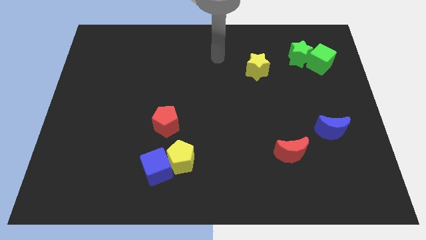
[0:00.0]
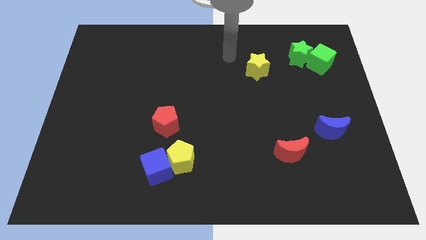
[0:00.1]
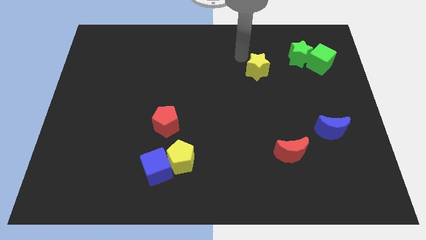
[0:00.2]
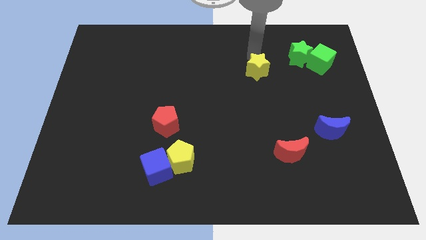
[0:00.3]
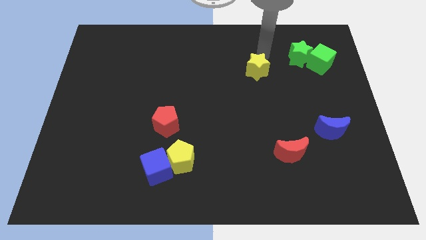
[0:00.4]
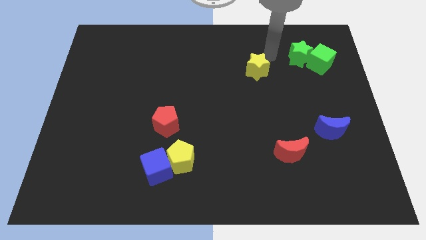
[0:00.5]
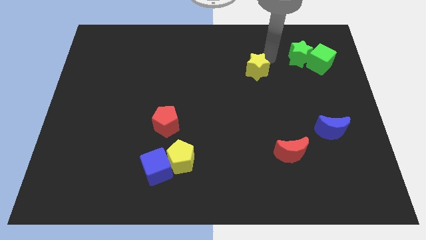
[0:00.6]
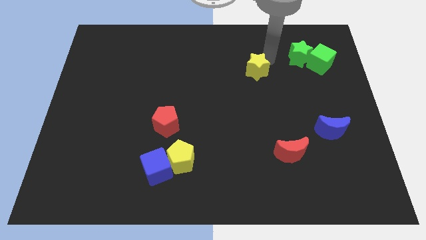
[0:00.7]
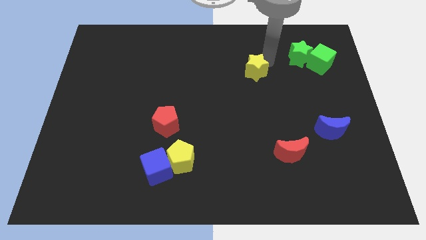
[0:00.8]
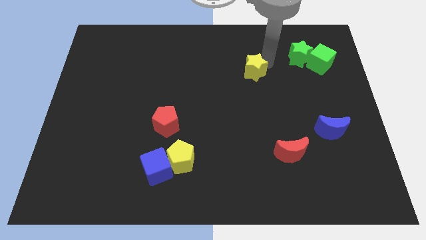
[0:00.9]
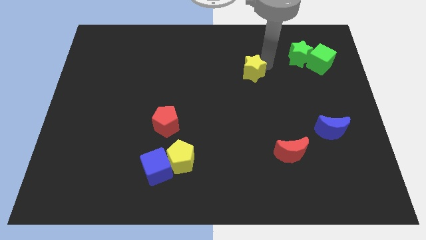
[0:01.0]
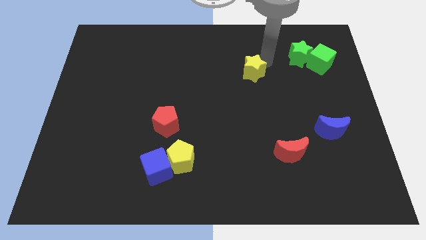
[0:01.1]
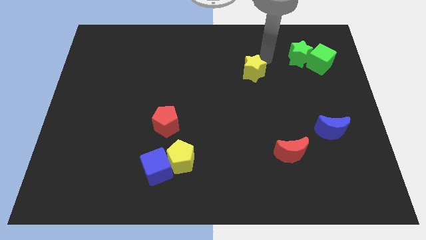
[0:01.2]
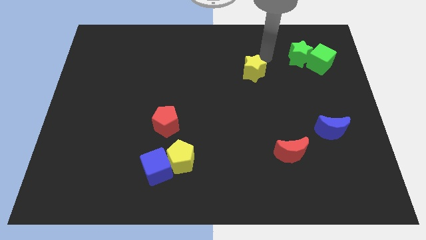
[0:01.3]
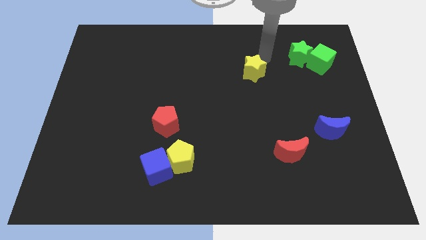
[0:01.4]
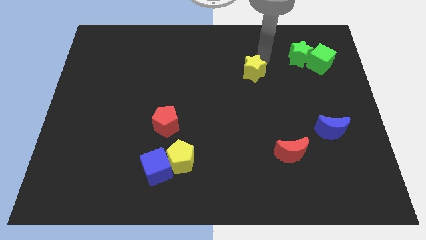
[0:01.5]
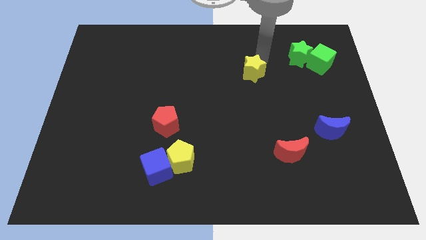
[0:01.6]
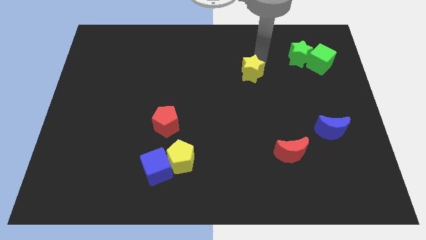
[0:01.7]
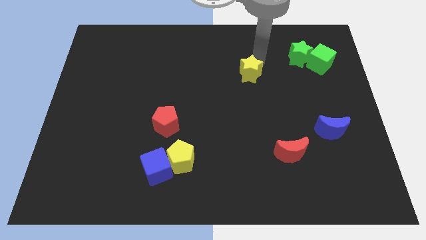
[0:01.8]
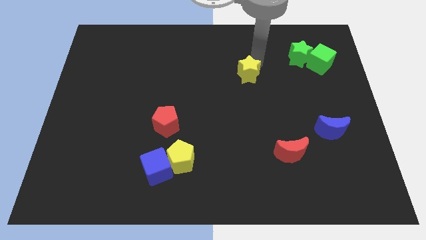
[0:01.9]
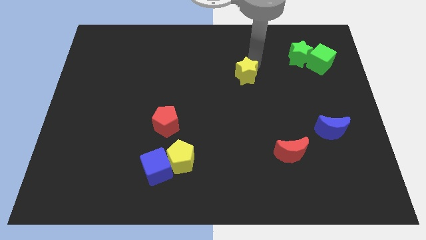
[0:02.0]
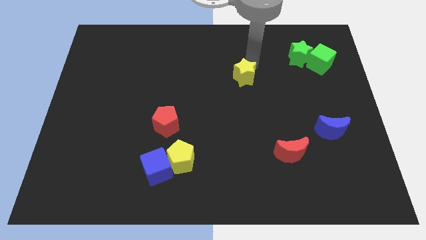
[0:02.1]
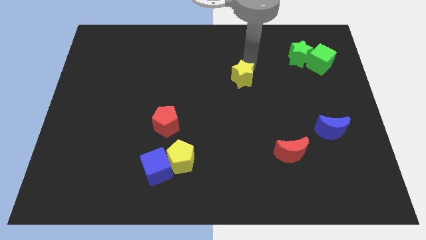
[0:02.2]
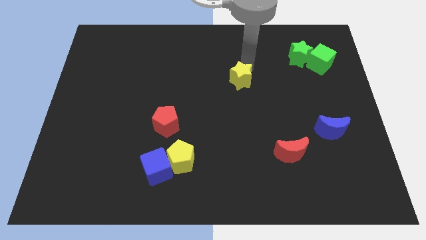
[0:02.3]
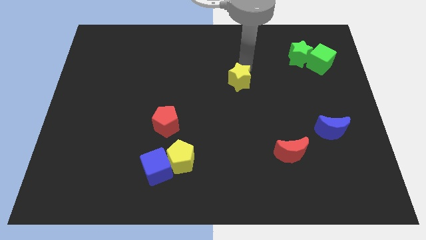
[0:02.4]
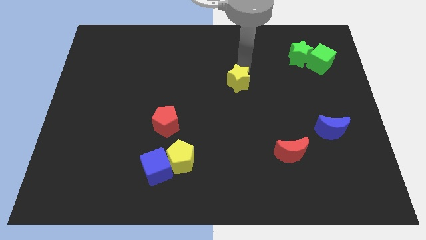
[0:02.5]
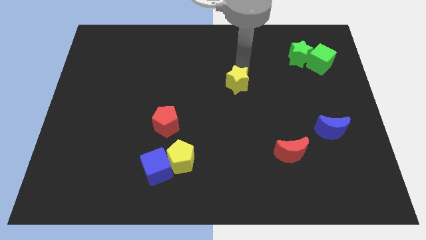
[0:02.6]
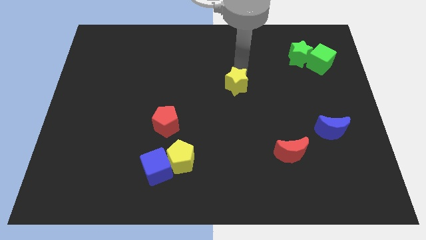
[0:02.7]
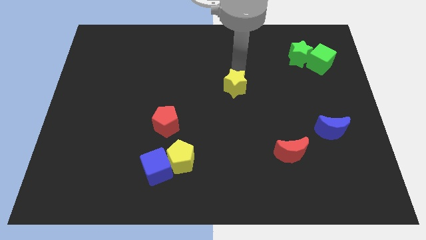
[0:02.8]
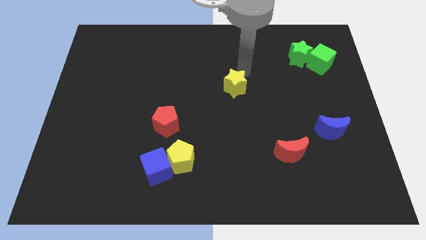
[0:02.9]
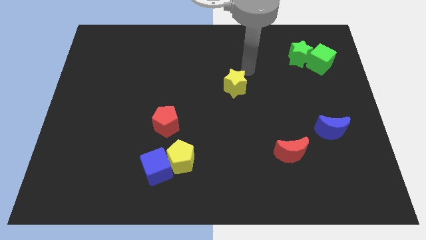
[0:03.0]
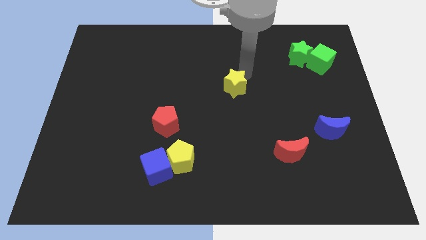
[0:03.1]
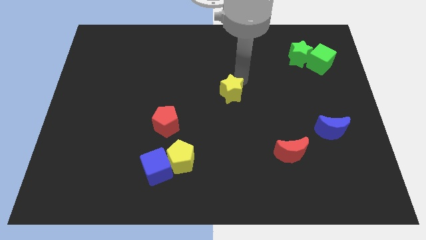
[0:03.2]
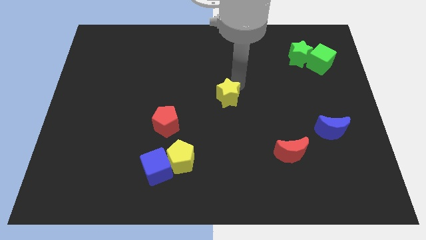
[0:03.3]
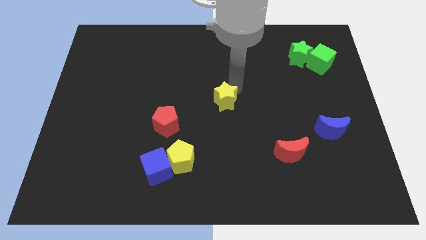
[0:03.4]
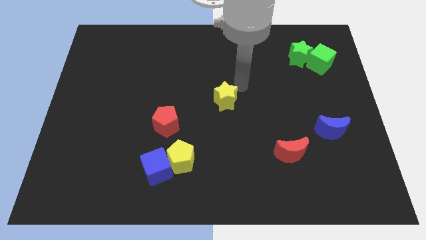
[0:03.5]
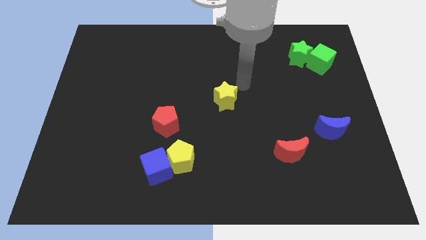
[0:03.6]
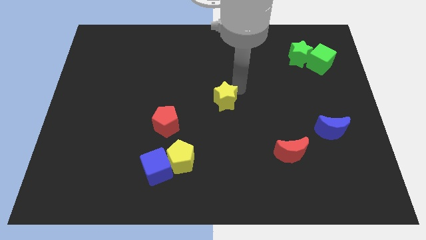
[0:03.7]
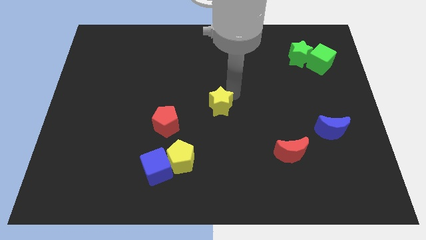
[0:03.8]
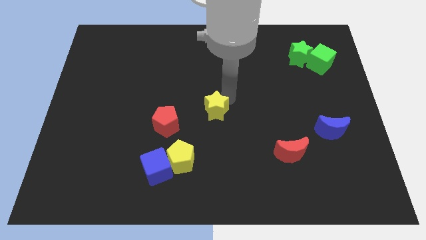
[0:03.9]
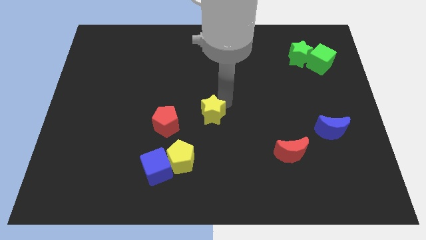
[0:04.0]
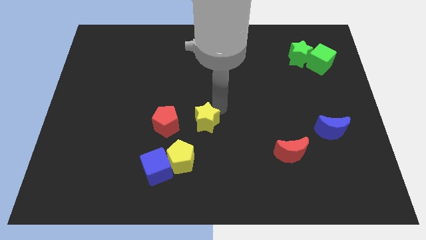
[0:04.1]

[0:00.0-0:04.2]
push the yellow star down and to the left diagonally

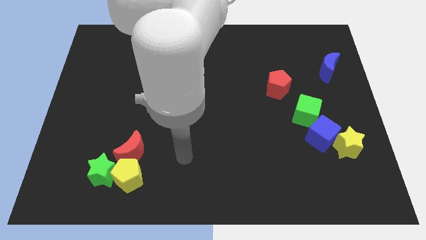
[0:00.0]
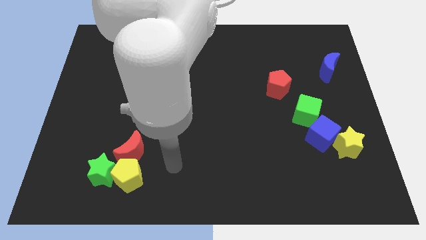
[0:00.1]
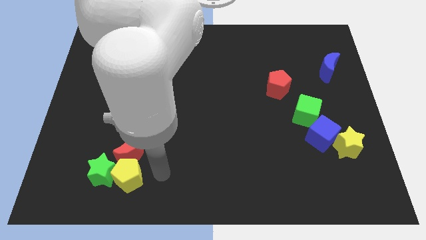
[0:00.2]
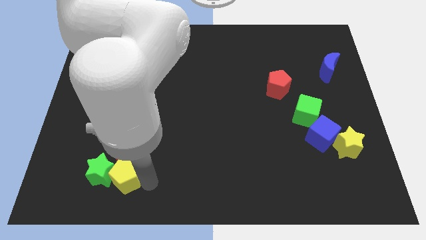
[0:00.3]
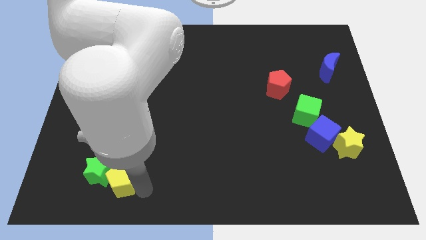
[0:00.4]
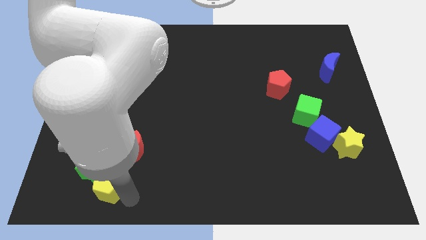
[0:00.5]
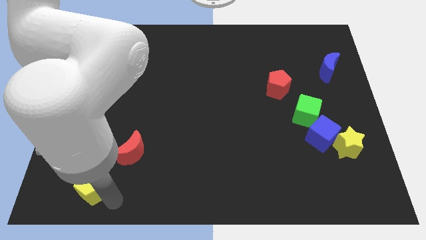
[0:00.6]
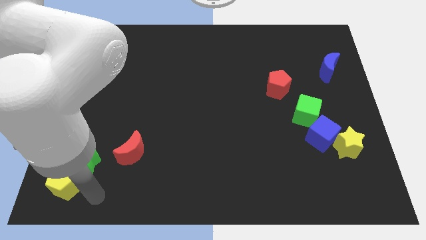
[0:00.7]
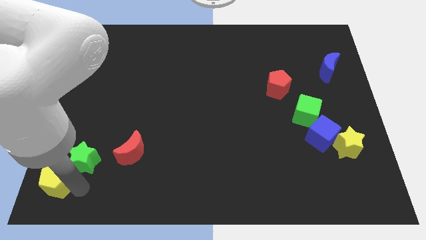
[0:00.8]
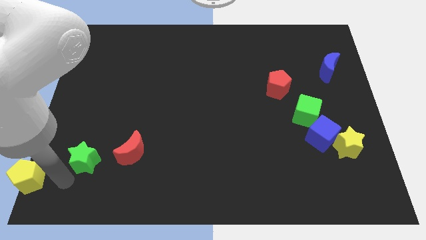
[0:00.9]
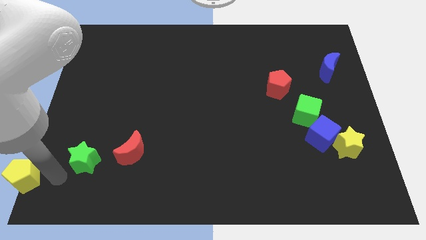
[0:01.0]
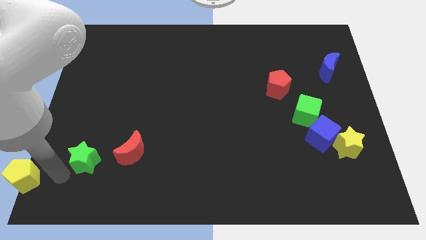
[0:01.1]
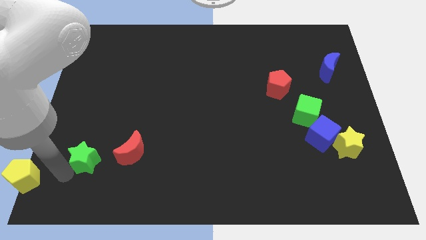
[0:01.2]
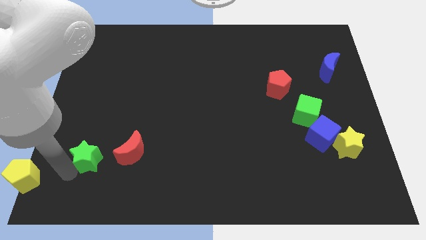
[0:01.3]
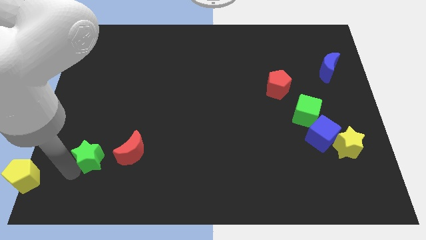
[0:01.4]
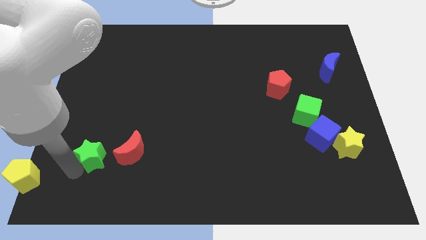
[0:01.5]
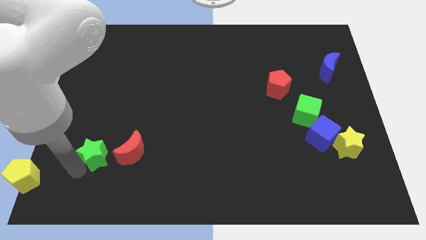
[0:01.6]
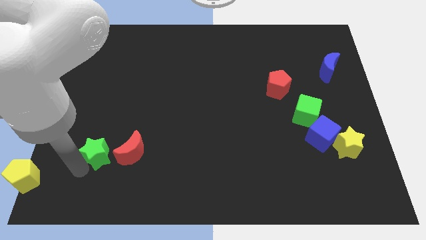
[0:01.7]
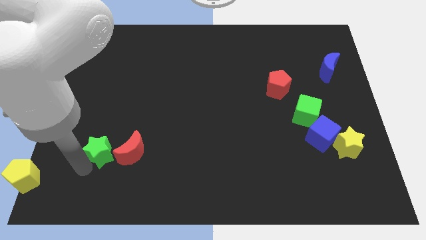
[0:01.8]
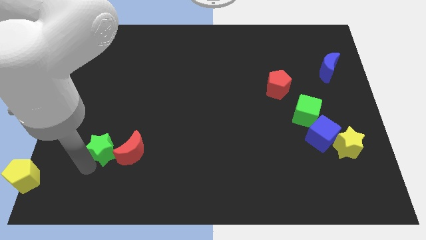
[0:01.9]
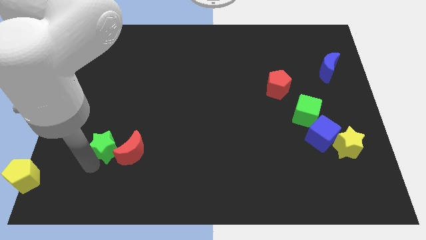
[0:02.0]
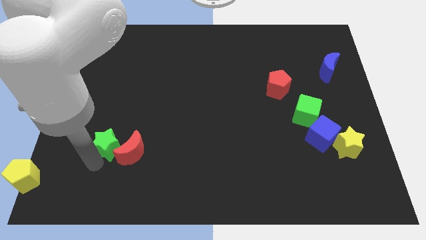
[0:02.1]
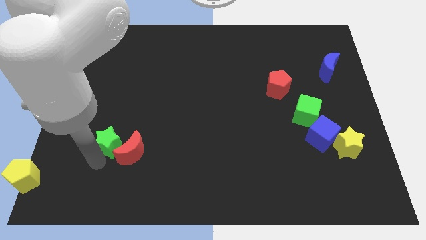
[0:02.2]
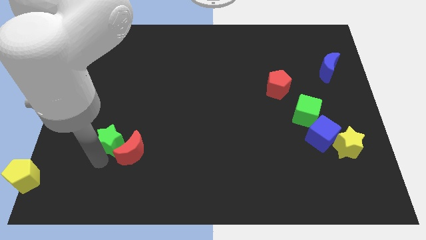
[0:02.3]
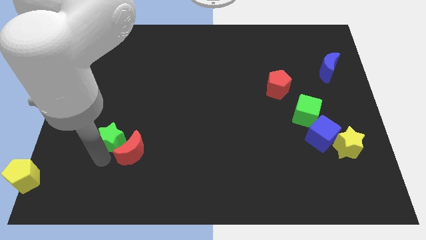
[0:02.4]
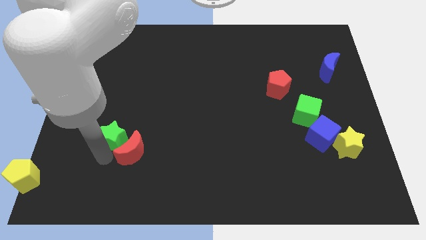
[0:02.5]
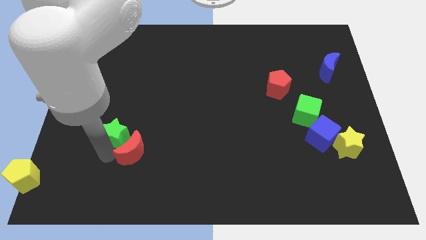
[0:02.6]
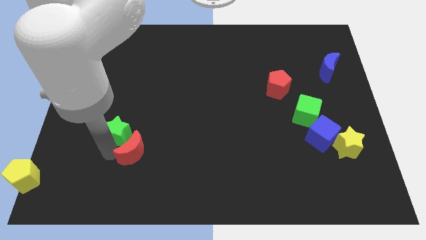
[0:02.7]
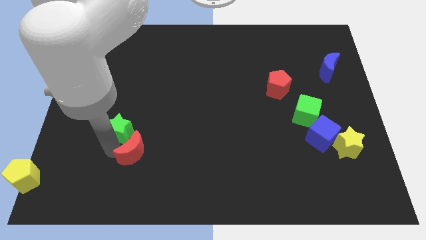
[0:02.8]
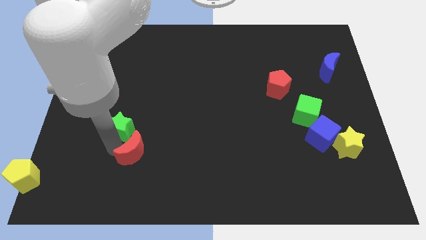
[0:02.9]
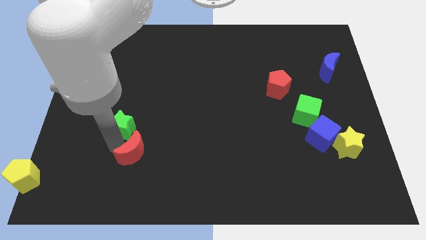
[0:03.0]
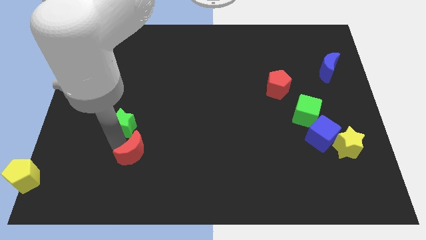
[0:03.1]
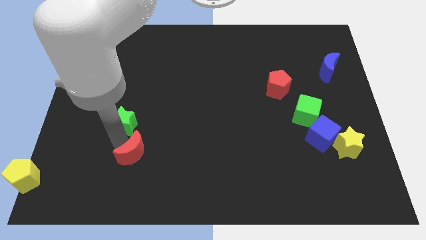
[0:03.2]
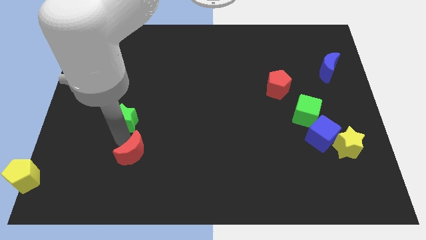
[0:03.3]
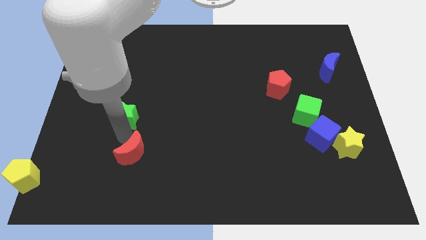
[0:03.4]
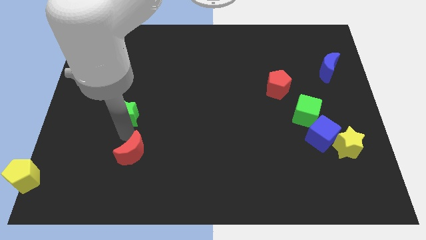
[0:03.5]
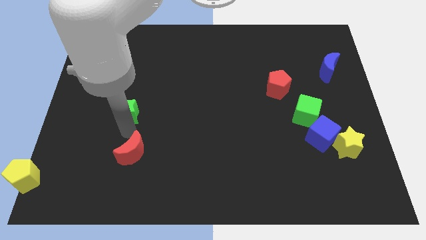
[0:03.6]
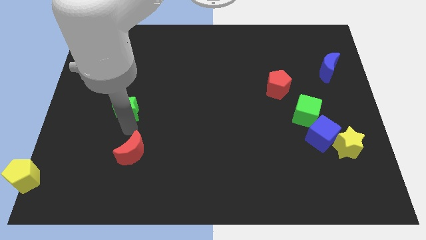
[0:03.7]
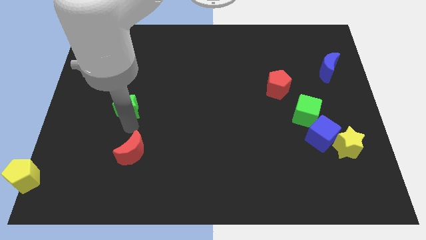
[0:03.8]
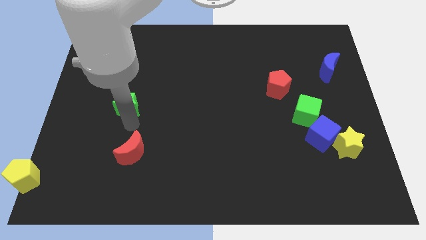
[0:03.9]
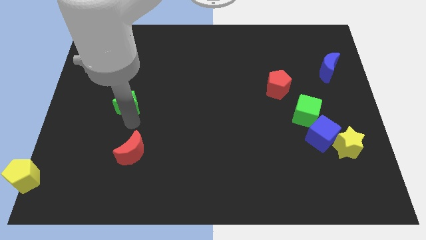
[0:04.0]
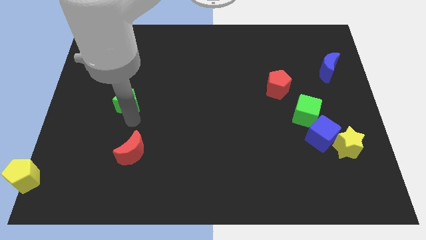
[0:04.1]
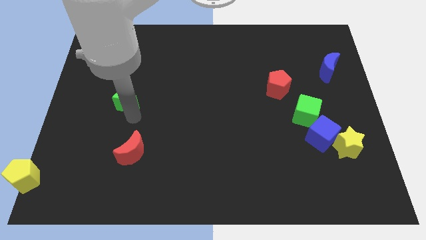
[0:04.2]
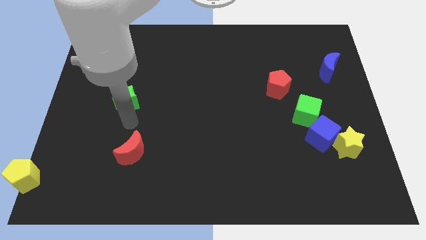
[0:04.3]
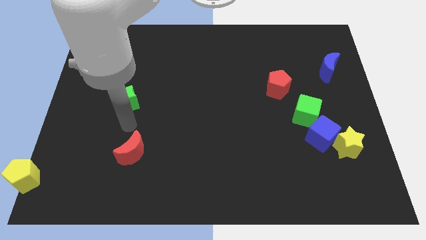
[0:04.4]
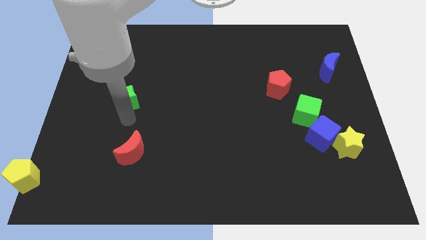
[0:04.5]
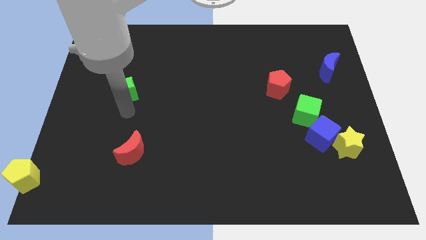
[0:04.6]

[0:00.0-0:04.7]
slide the green star upwards

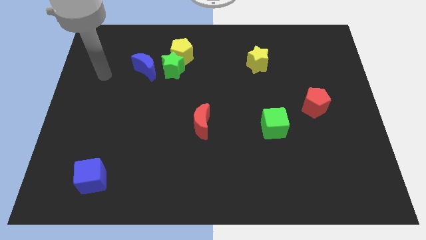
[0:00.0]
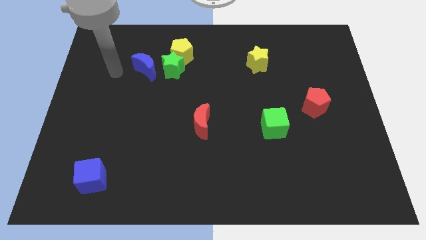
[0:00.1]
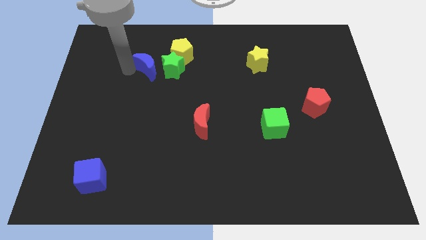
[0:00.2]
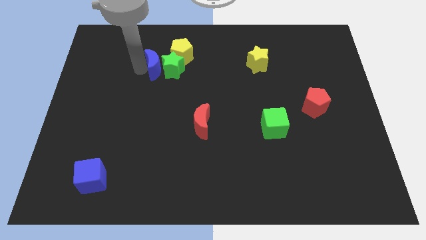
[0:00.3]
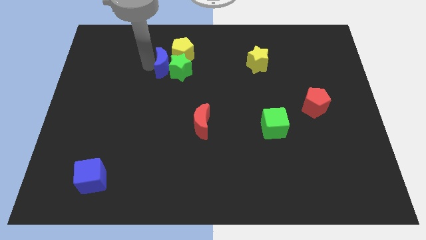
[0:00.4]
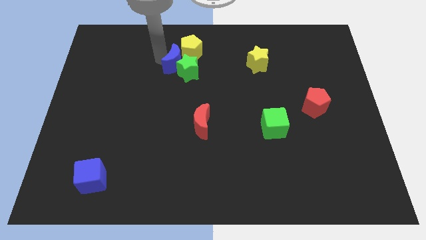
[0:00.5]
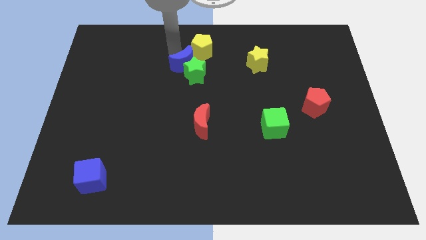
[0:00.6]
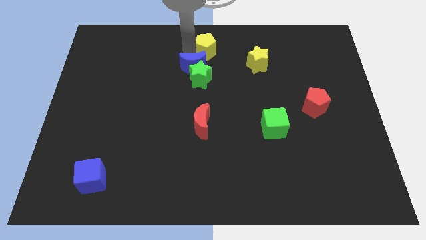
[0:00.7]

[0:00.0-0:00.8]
move the green star slightly downwards and to the right diagonally
